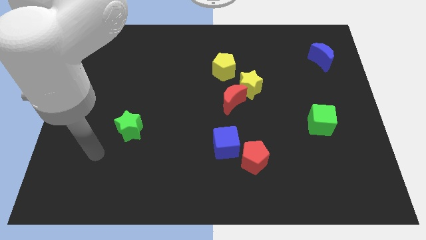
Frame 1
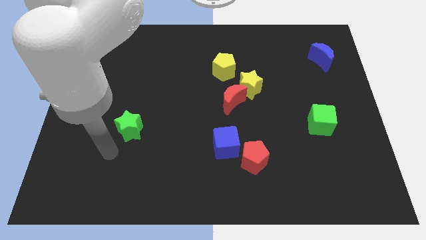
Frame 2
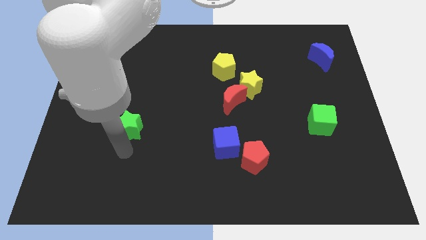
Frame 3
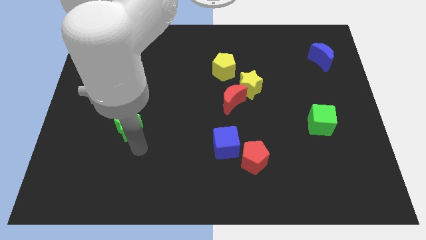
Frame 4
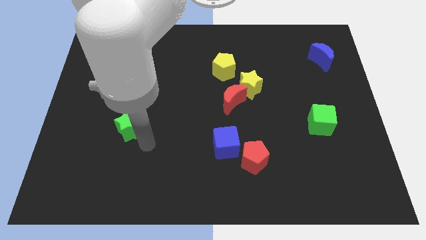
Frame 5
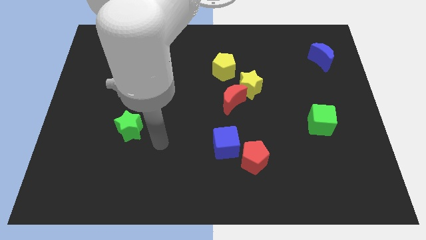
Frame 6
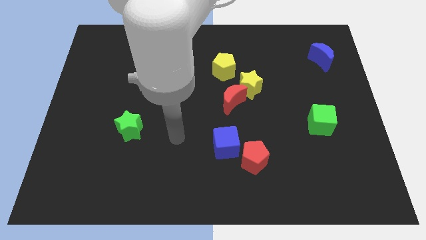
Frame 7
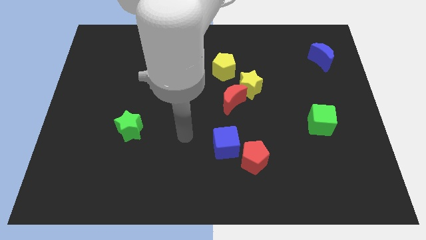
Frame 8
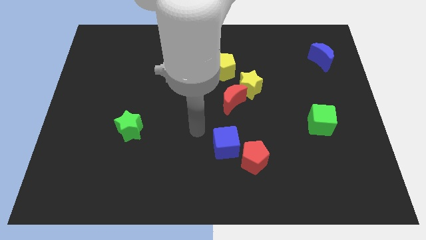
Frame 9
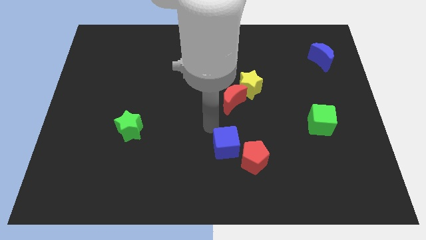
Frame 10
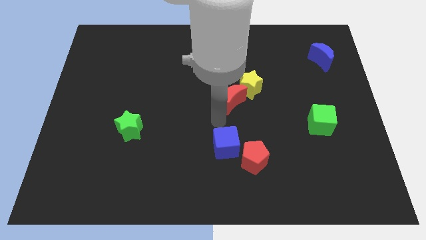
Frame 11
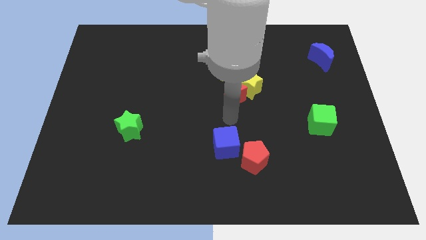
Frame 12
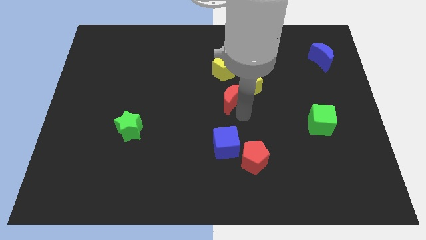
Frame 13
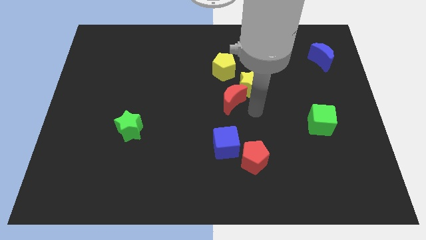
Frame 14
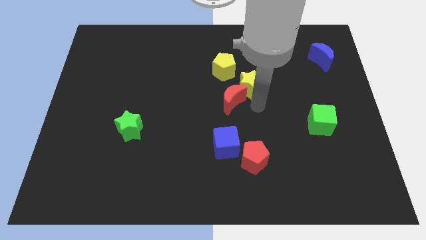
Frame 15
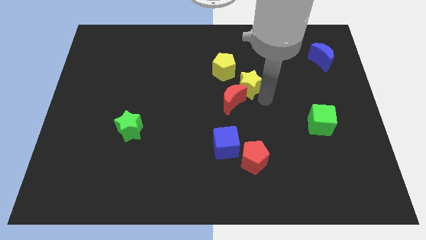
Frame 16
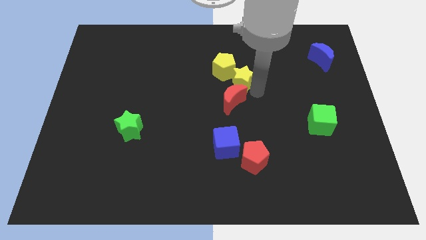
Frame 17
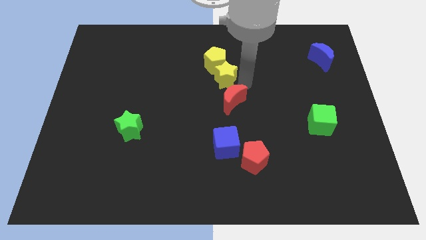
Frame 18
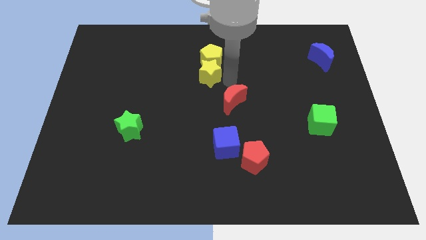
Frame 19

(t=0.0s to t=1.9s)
separate the red moon from the yellow star

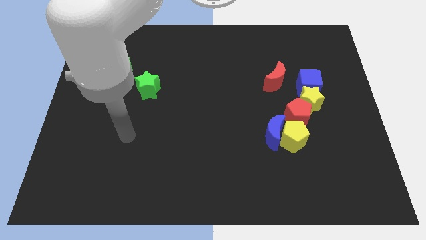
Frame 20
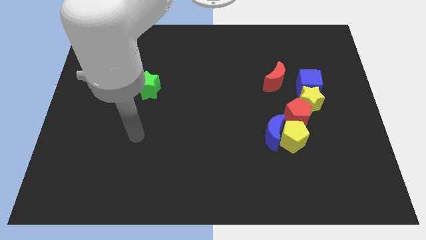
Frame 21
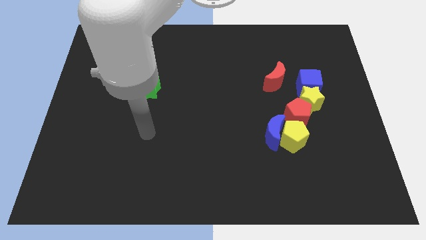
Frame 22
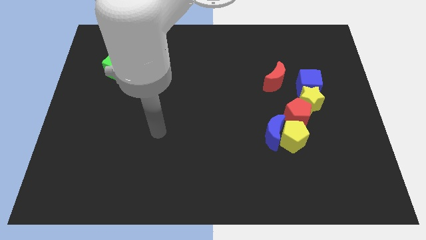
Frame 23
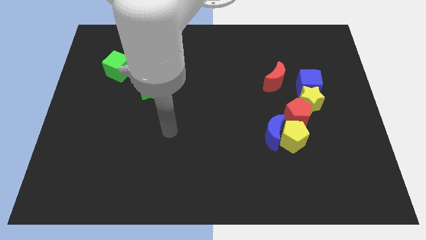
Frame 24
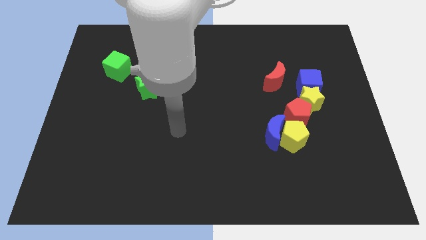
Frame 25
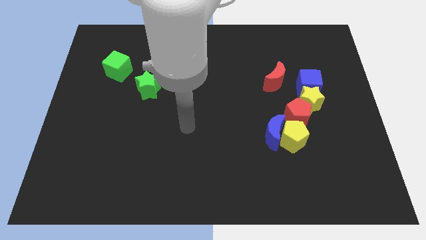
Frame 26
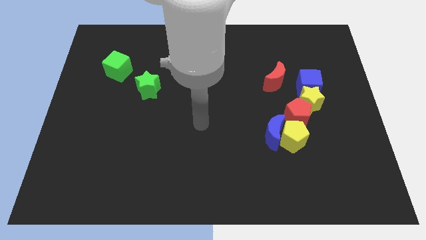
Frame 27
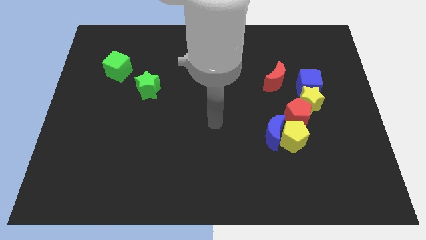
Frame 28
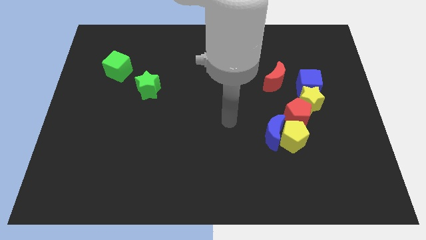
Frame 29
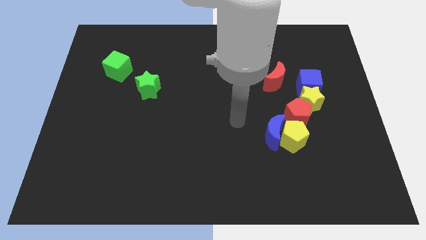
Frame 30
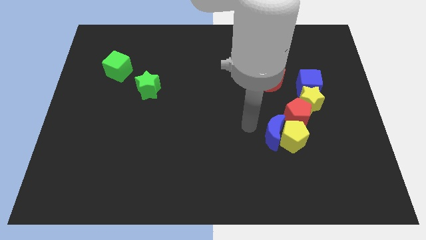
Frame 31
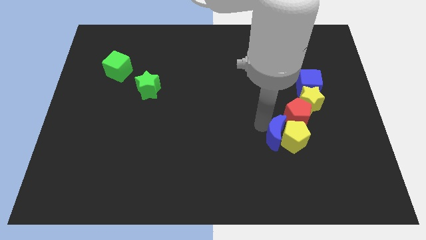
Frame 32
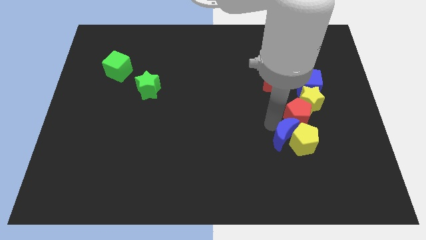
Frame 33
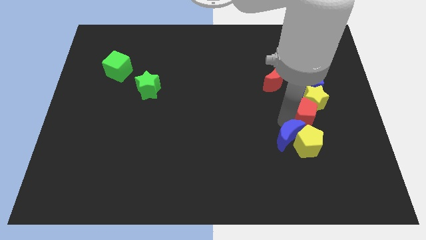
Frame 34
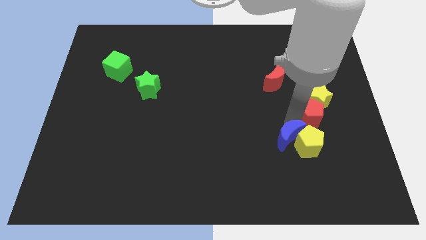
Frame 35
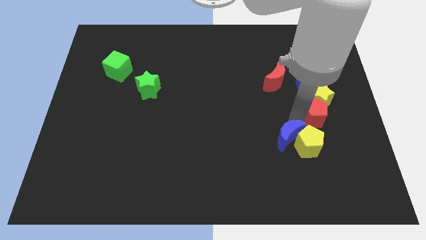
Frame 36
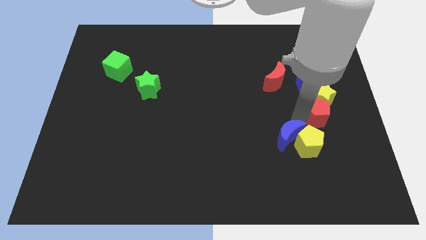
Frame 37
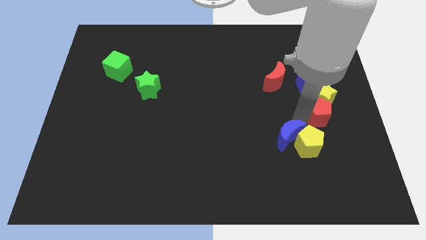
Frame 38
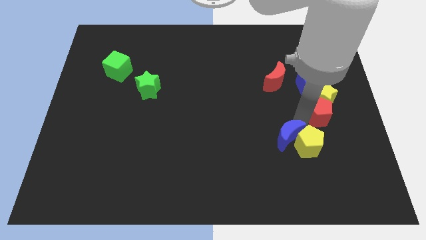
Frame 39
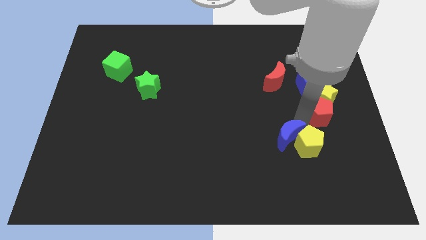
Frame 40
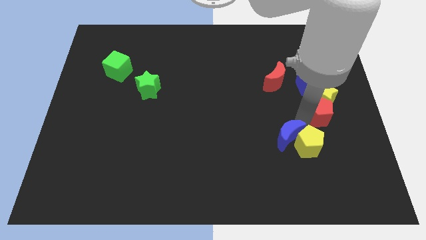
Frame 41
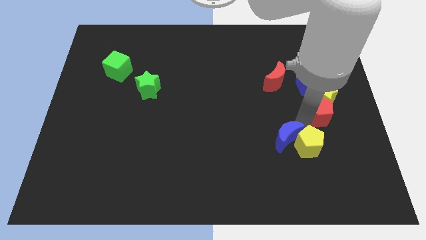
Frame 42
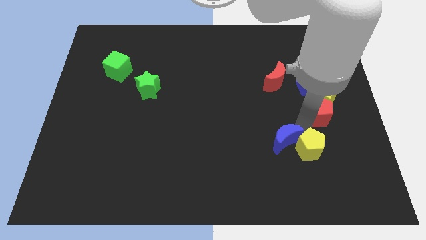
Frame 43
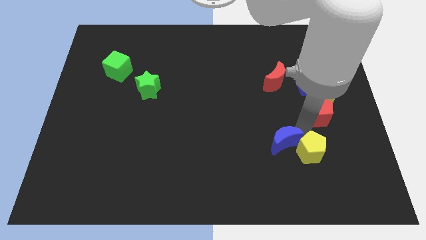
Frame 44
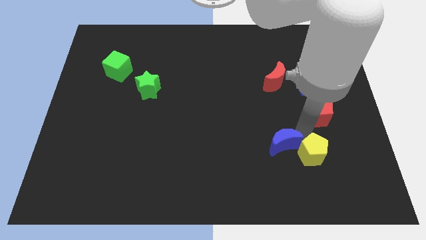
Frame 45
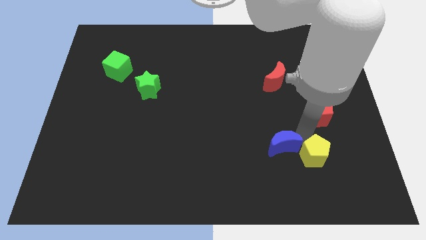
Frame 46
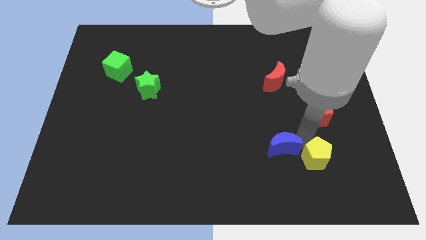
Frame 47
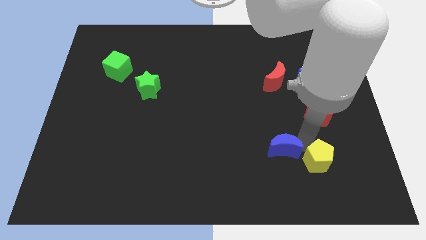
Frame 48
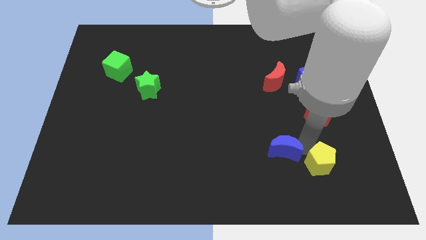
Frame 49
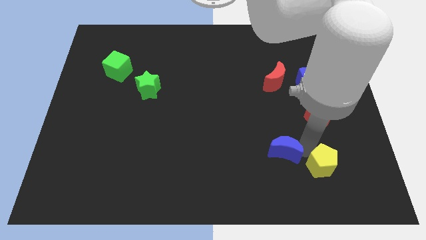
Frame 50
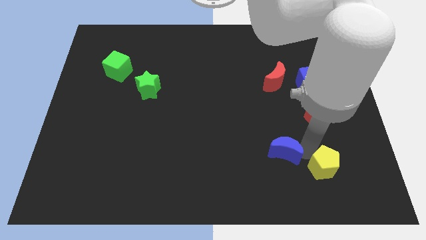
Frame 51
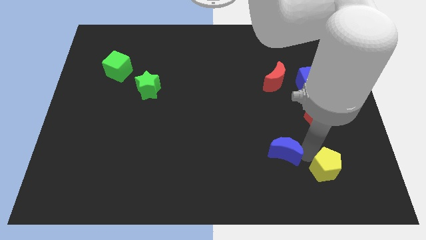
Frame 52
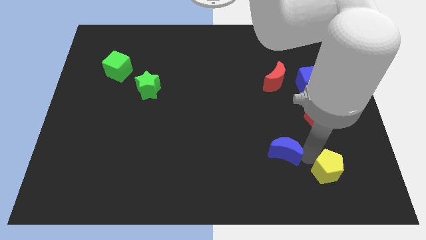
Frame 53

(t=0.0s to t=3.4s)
separate the yellow pentagon from the blue moon and red pentagon

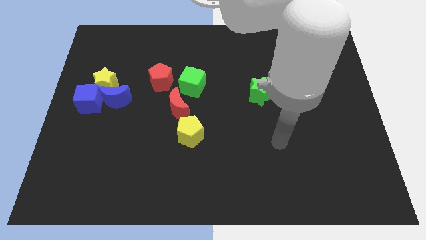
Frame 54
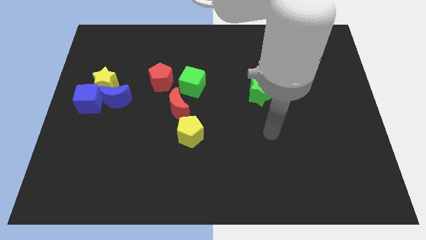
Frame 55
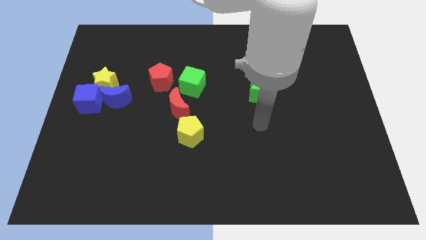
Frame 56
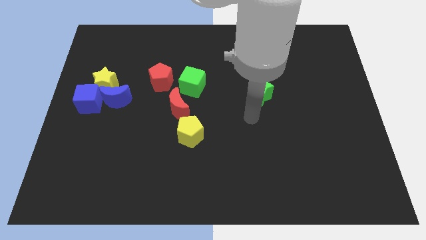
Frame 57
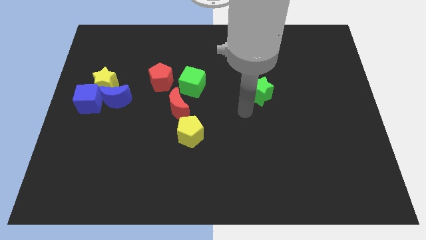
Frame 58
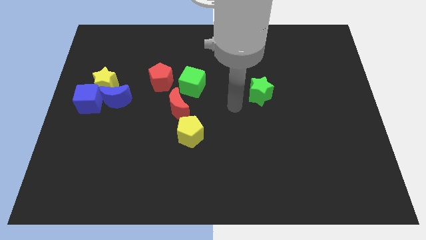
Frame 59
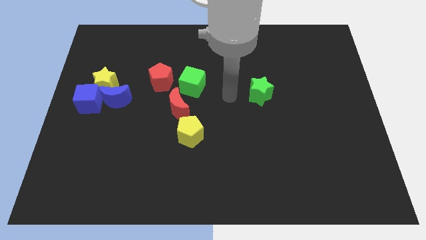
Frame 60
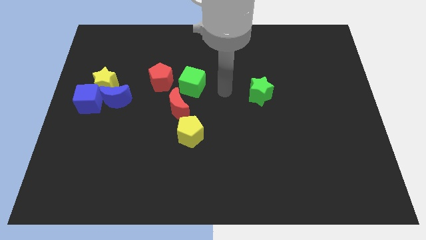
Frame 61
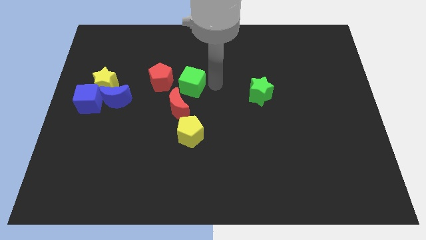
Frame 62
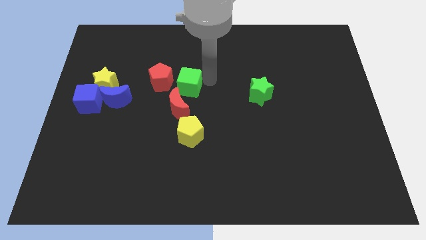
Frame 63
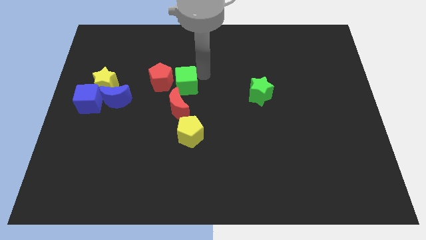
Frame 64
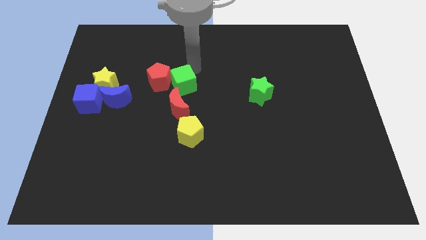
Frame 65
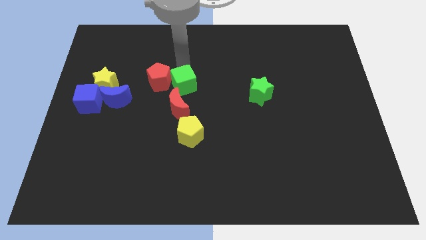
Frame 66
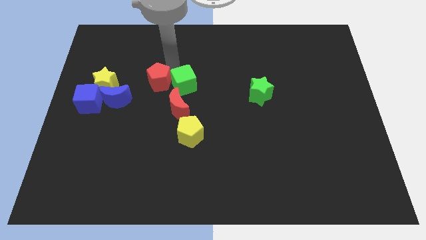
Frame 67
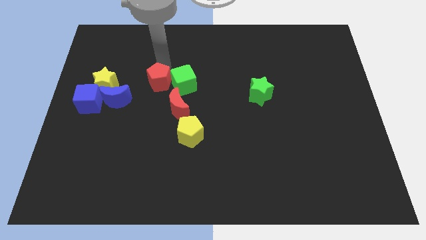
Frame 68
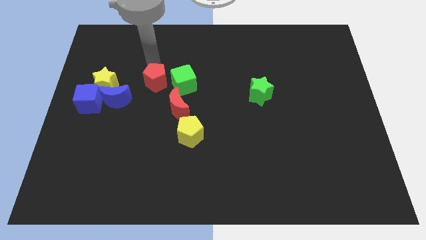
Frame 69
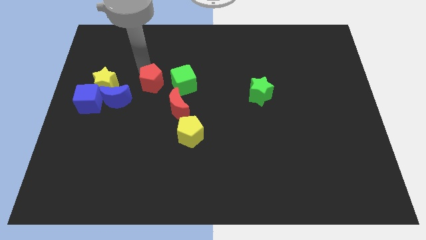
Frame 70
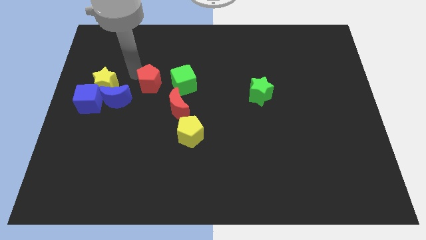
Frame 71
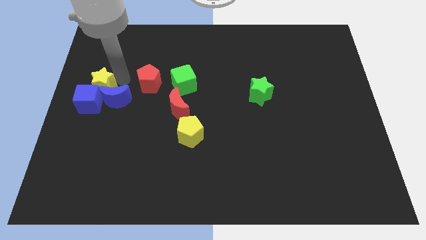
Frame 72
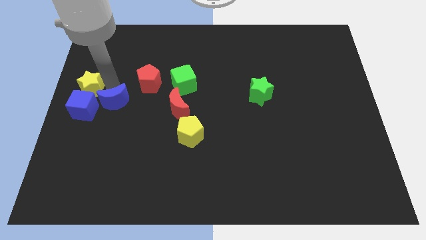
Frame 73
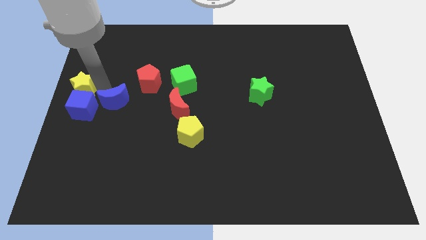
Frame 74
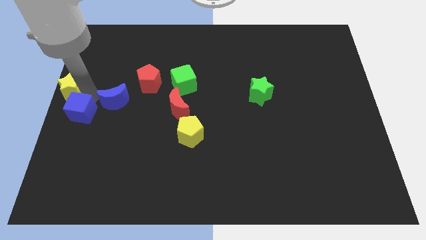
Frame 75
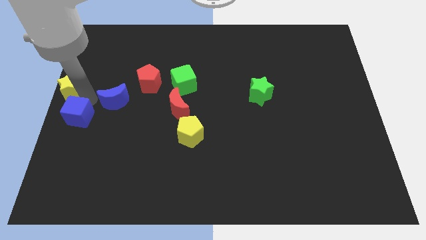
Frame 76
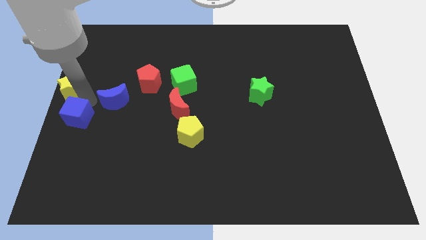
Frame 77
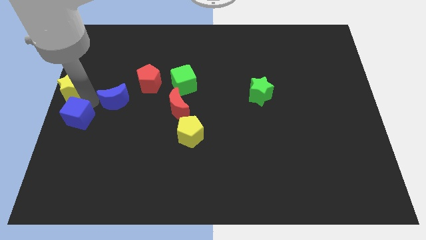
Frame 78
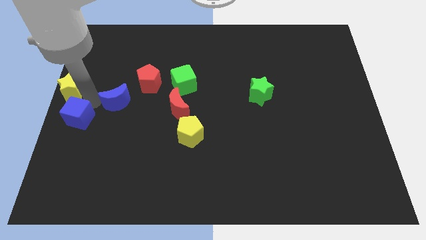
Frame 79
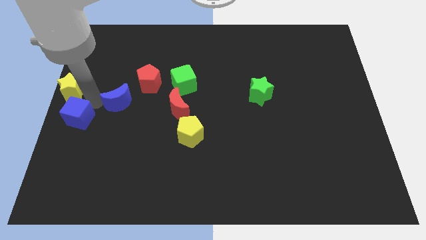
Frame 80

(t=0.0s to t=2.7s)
separate the blue moon from the yellow star and blue cube

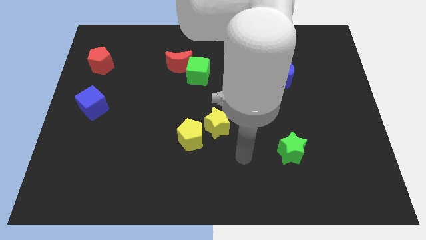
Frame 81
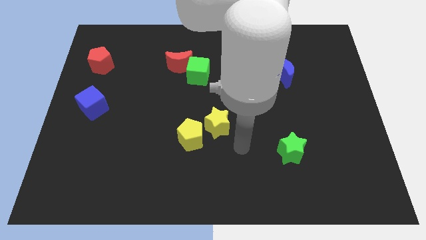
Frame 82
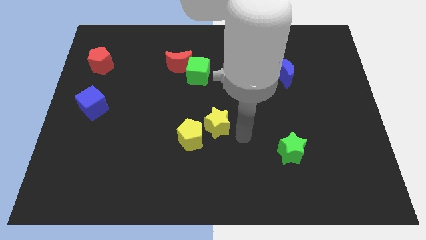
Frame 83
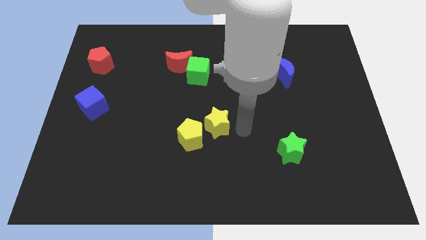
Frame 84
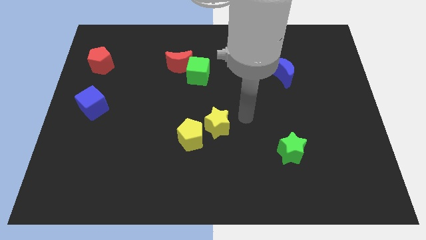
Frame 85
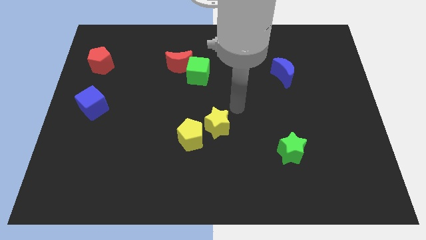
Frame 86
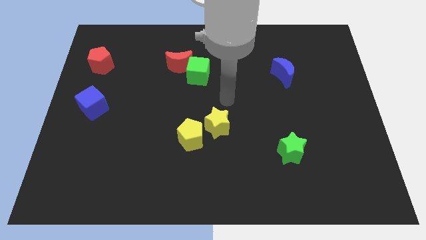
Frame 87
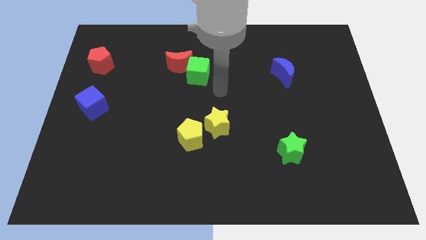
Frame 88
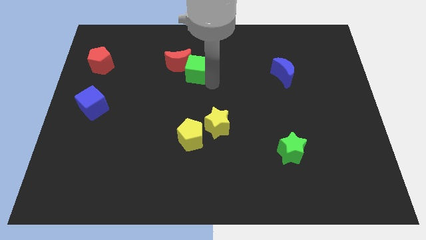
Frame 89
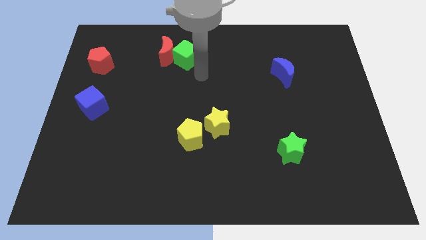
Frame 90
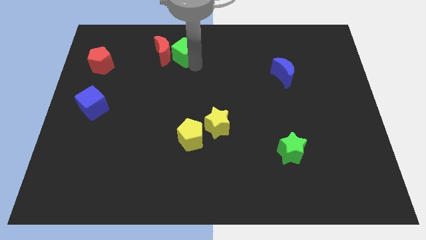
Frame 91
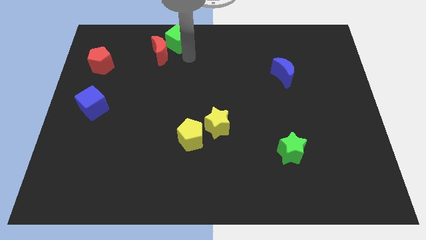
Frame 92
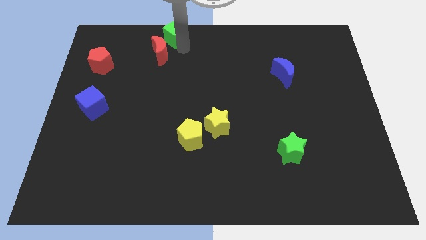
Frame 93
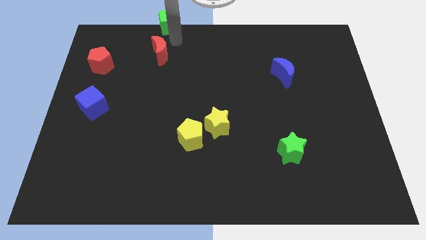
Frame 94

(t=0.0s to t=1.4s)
separate the red moon from the green cube

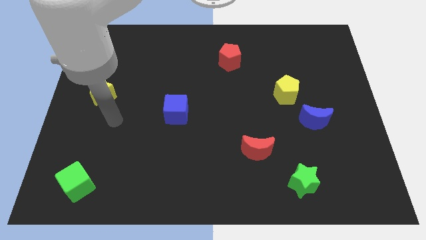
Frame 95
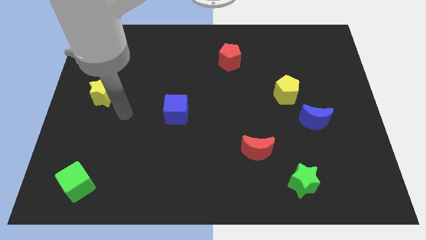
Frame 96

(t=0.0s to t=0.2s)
move the blue moon away from the yellow pentagon
